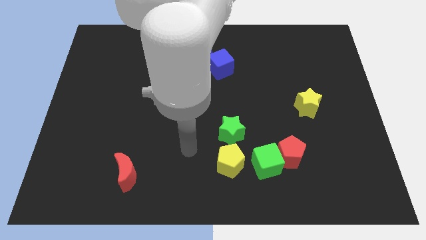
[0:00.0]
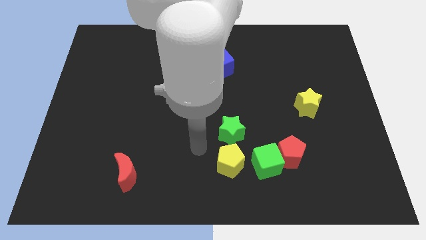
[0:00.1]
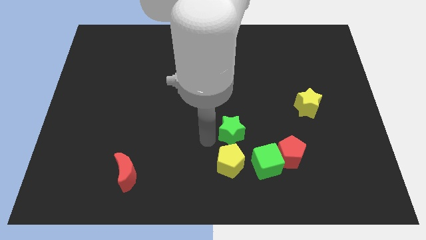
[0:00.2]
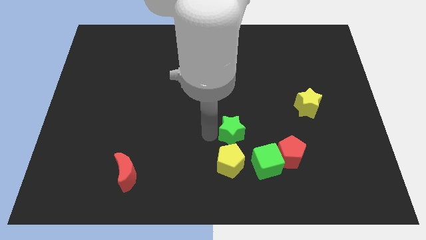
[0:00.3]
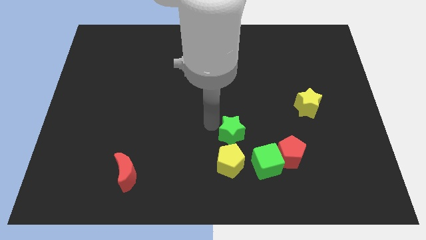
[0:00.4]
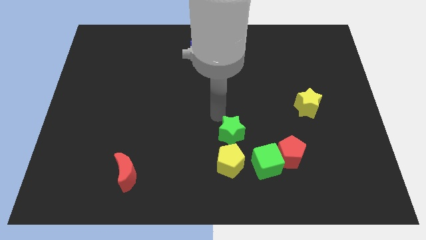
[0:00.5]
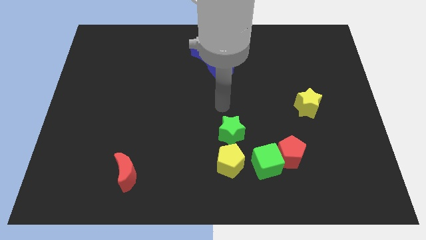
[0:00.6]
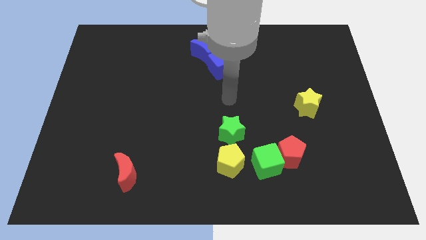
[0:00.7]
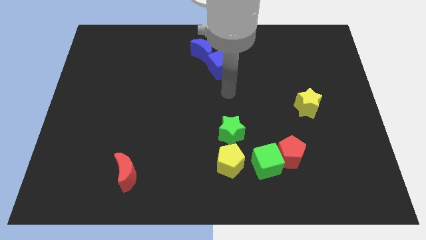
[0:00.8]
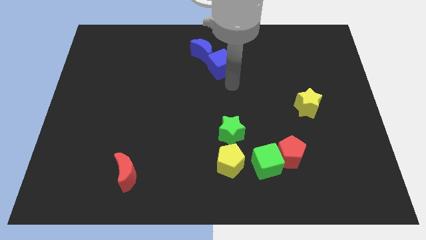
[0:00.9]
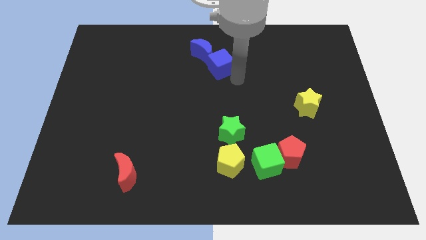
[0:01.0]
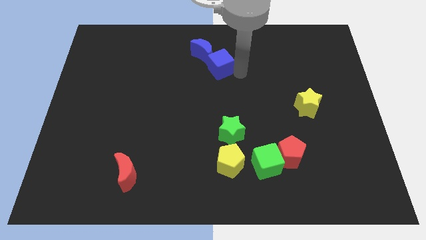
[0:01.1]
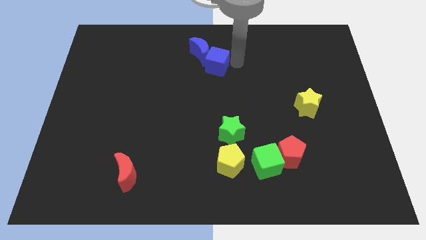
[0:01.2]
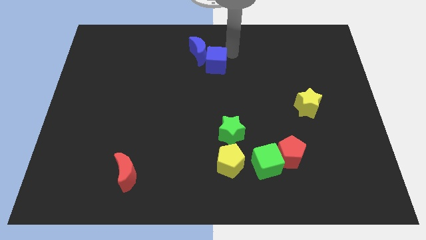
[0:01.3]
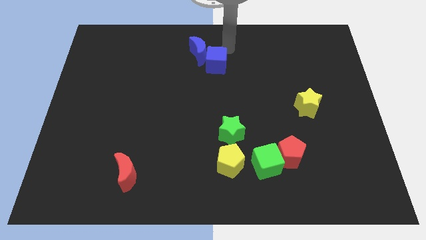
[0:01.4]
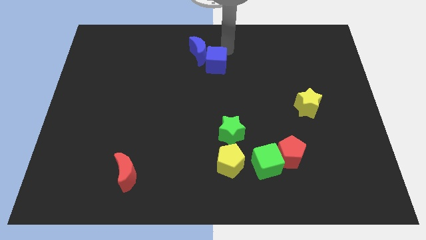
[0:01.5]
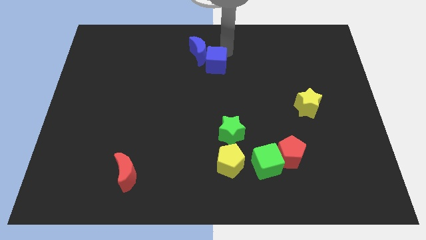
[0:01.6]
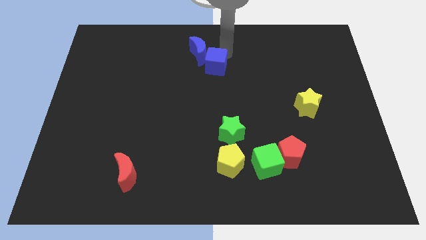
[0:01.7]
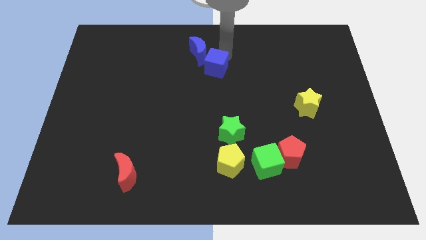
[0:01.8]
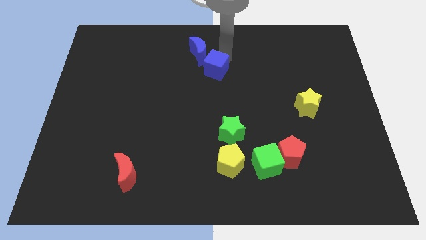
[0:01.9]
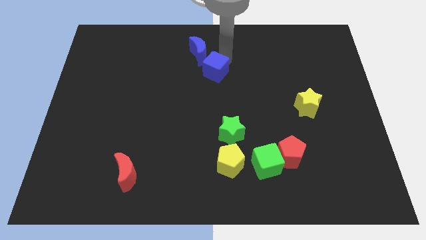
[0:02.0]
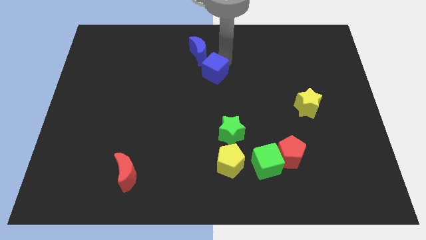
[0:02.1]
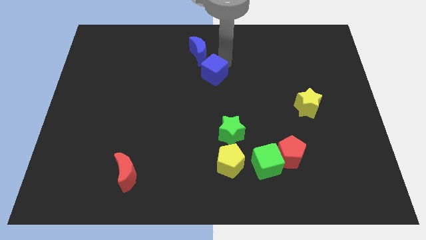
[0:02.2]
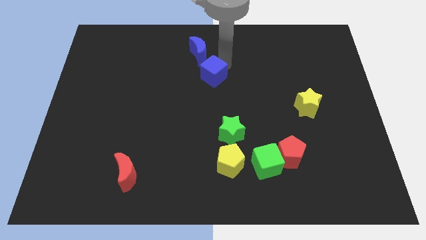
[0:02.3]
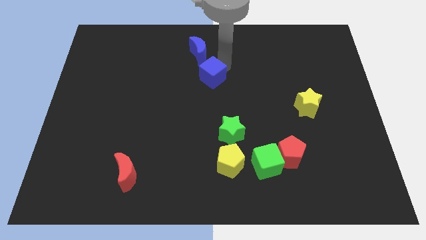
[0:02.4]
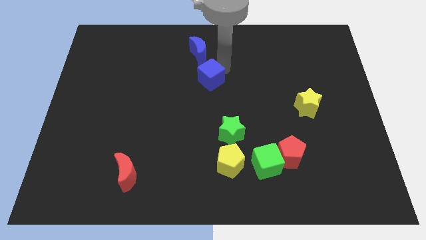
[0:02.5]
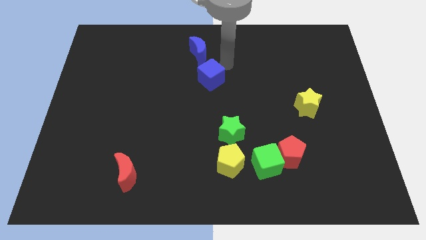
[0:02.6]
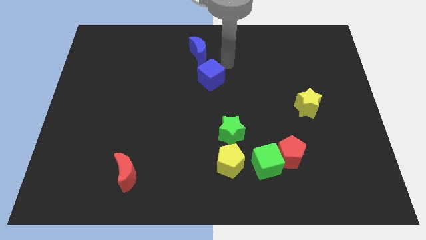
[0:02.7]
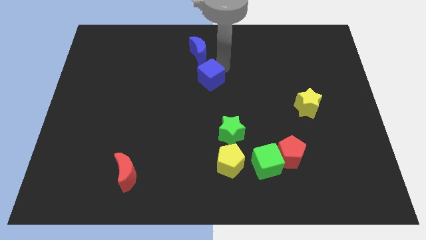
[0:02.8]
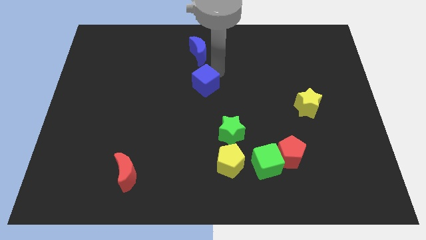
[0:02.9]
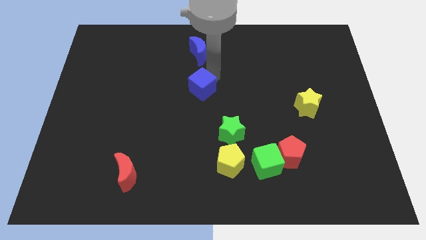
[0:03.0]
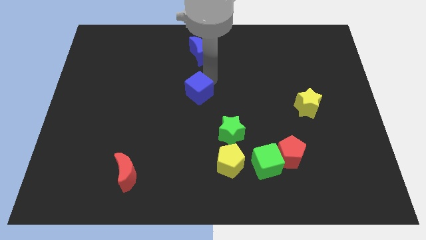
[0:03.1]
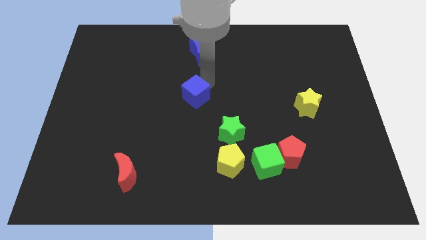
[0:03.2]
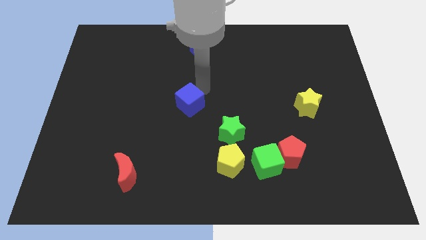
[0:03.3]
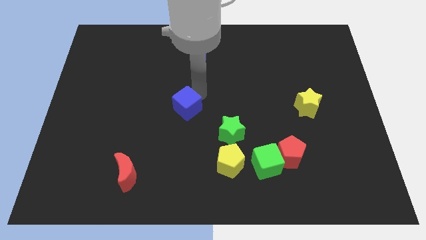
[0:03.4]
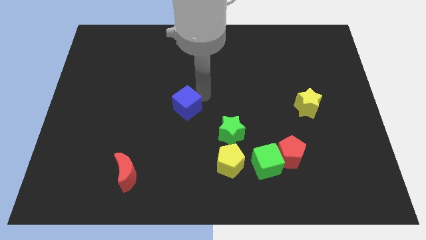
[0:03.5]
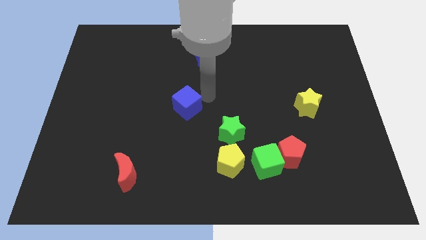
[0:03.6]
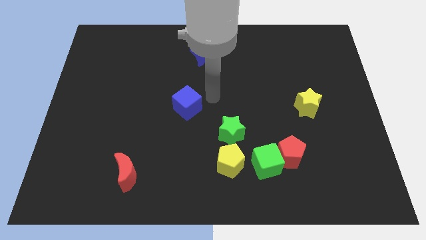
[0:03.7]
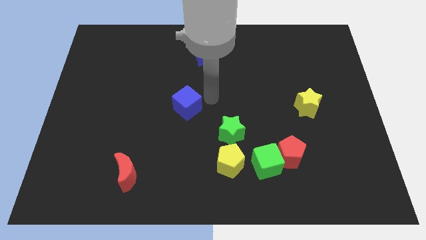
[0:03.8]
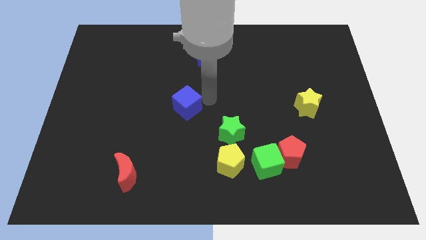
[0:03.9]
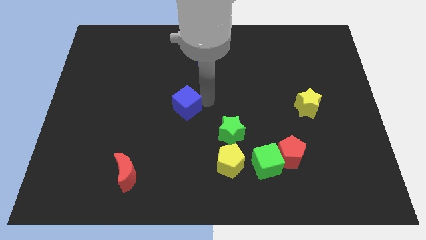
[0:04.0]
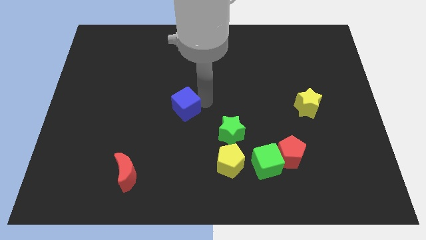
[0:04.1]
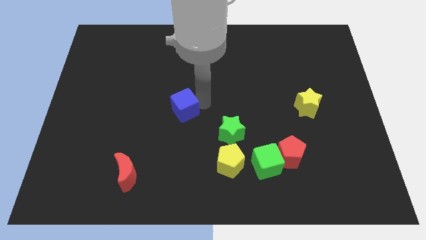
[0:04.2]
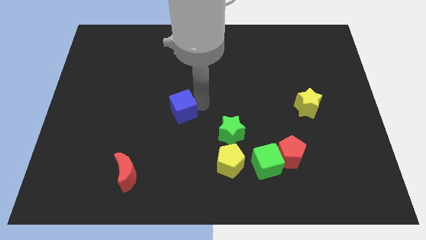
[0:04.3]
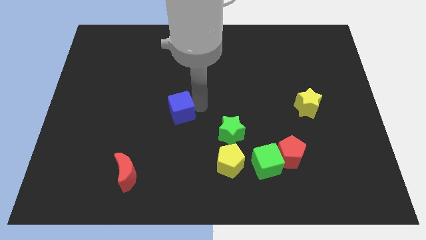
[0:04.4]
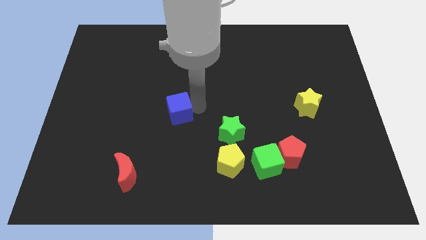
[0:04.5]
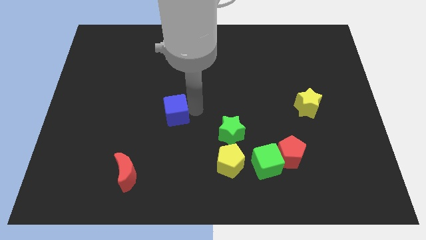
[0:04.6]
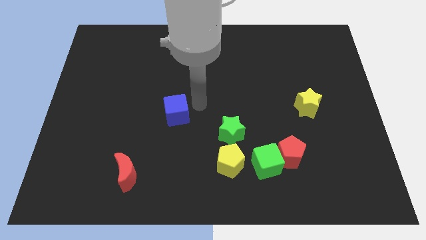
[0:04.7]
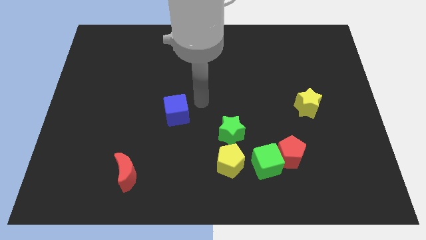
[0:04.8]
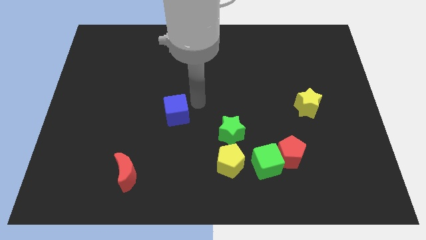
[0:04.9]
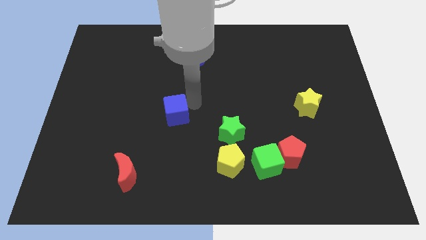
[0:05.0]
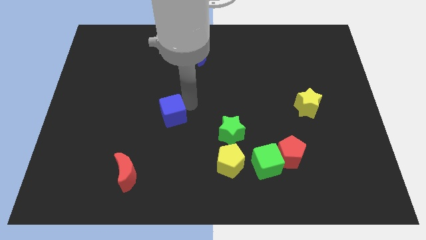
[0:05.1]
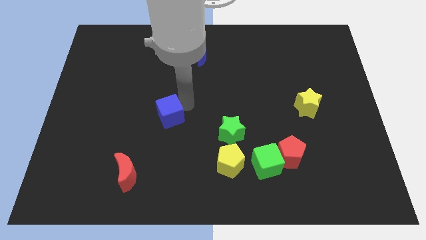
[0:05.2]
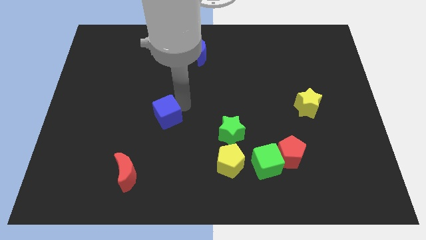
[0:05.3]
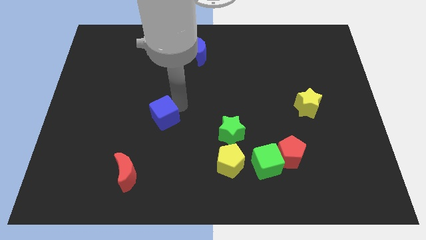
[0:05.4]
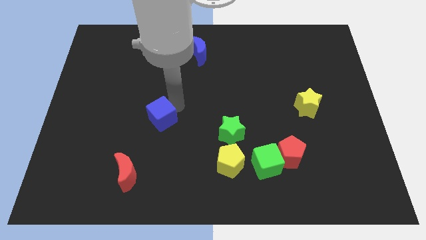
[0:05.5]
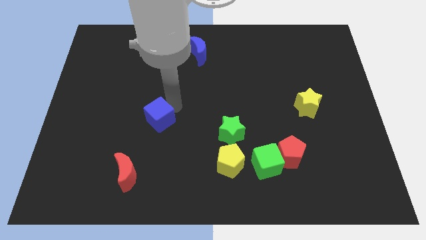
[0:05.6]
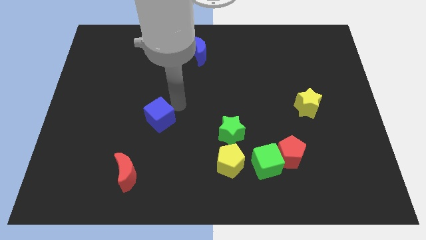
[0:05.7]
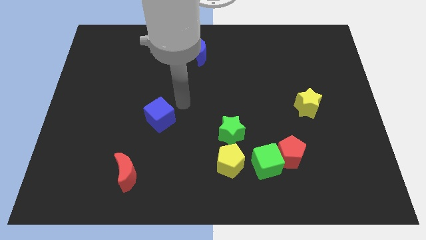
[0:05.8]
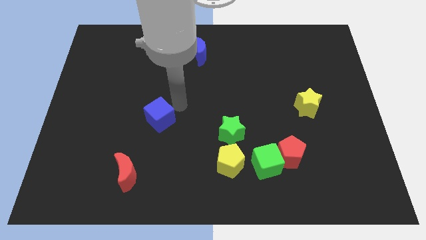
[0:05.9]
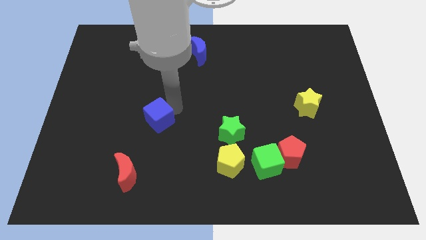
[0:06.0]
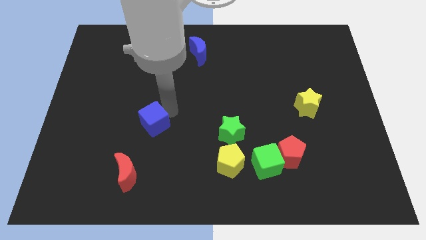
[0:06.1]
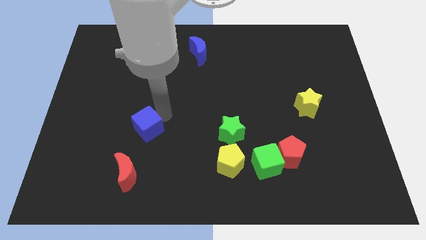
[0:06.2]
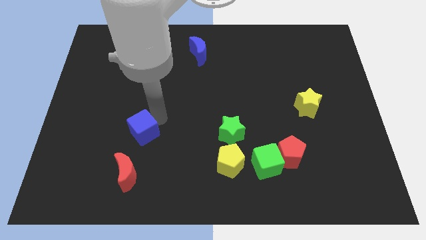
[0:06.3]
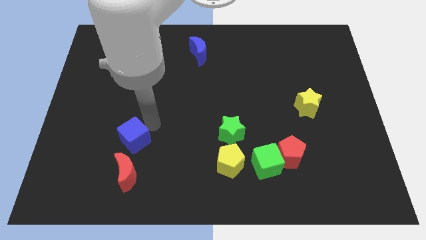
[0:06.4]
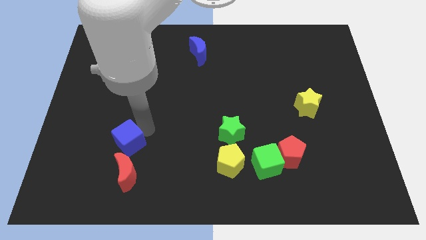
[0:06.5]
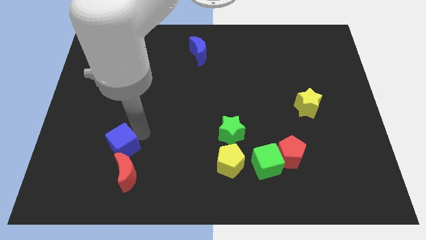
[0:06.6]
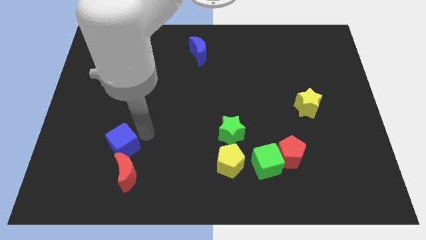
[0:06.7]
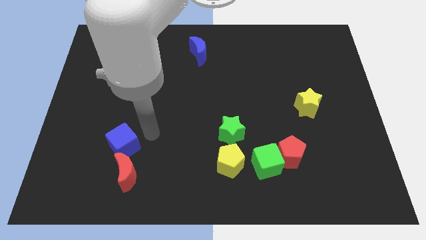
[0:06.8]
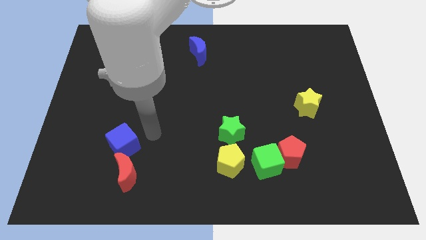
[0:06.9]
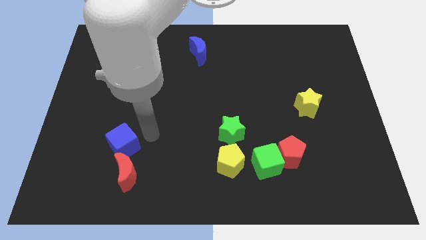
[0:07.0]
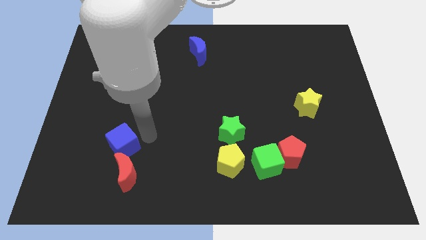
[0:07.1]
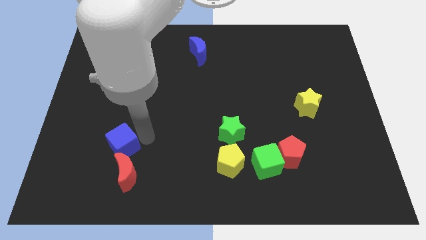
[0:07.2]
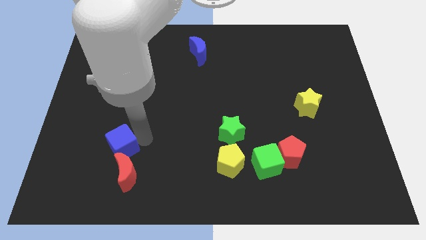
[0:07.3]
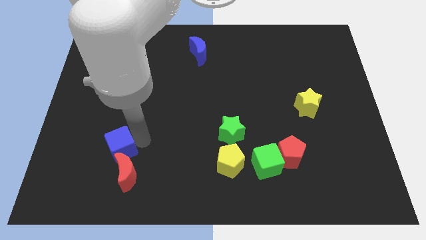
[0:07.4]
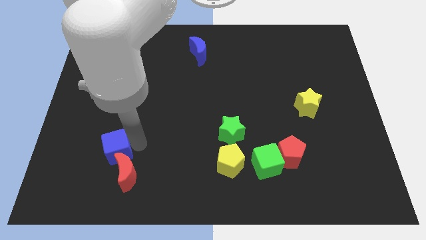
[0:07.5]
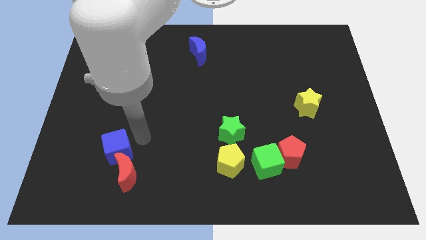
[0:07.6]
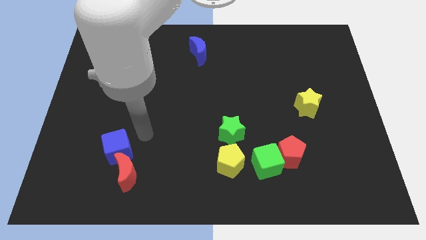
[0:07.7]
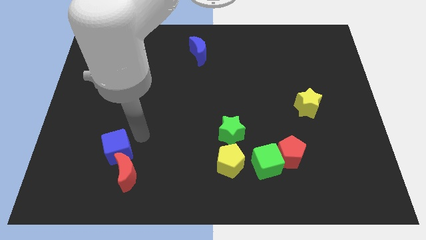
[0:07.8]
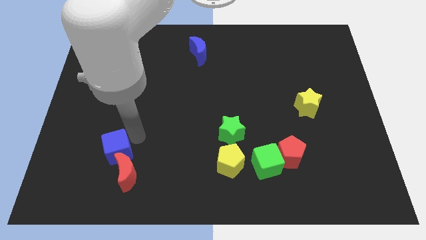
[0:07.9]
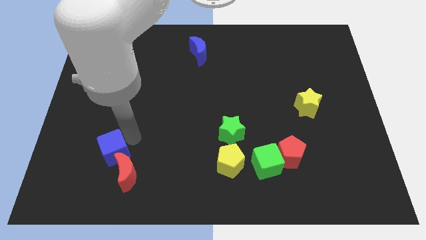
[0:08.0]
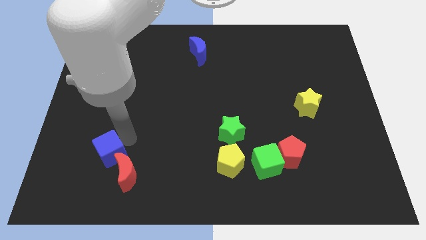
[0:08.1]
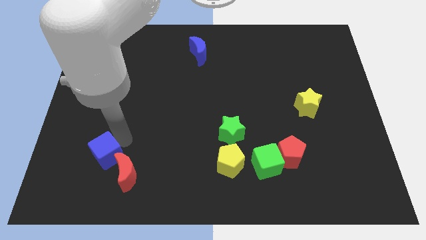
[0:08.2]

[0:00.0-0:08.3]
move the blue cube just left of the red moon
